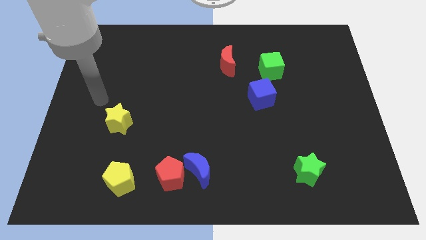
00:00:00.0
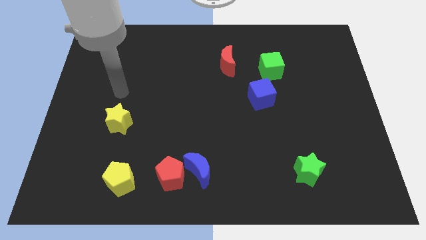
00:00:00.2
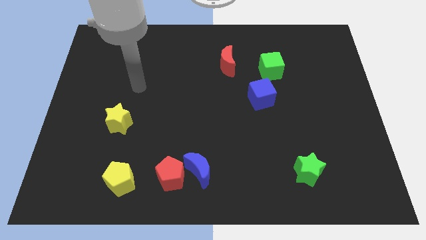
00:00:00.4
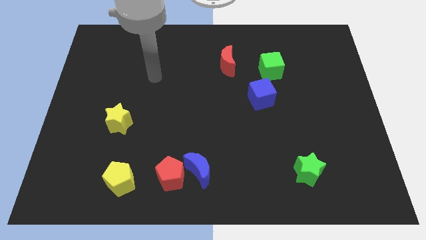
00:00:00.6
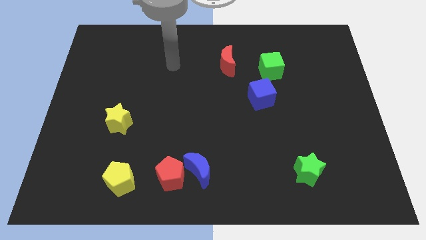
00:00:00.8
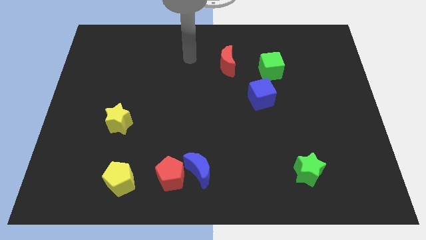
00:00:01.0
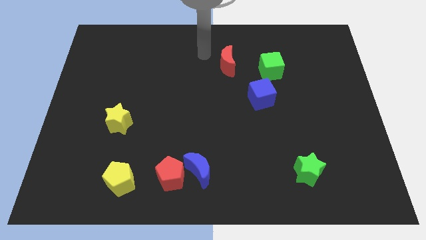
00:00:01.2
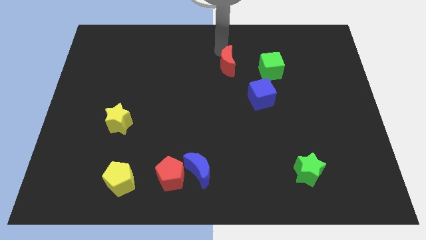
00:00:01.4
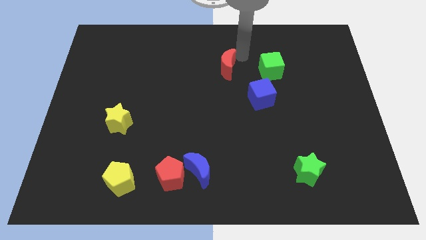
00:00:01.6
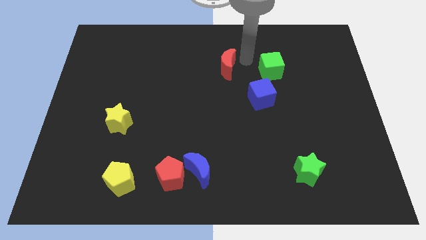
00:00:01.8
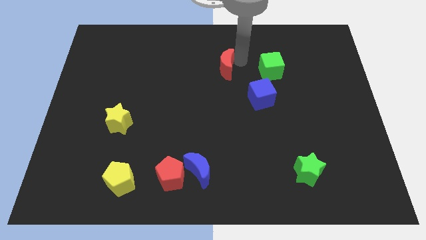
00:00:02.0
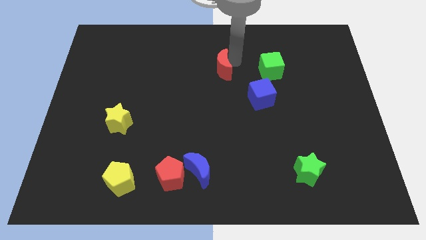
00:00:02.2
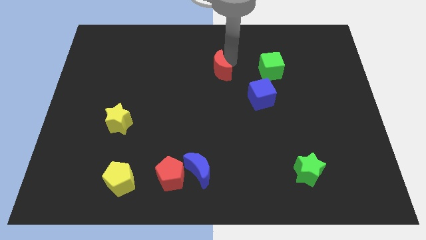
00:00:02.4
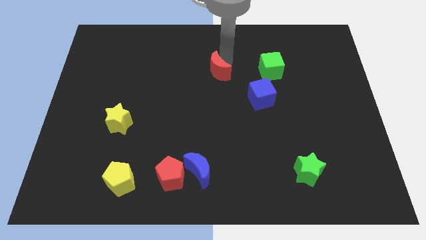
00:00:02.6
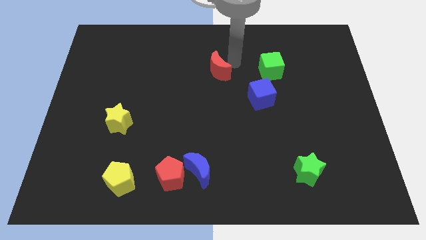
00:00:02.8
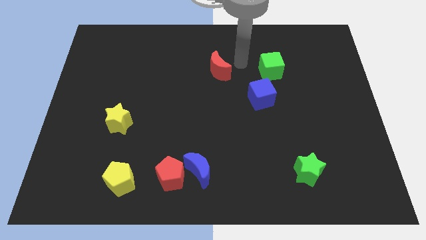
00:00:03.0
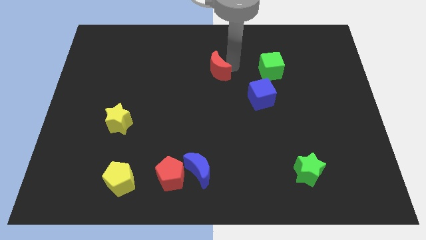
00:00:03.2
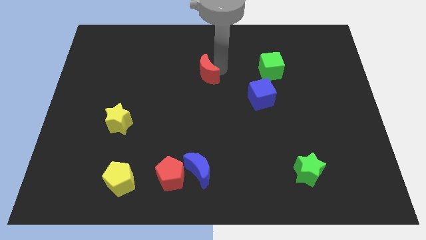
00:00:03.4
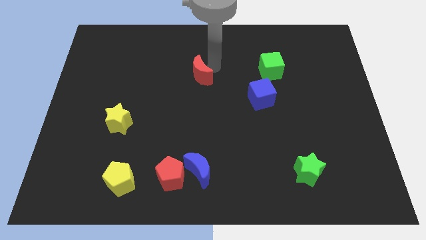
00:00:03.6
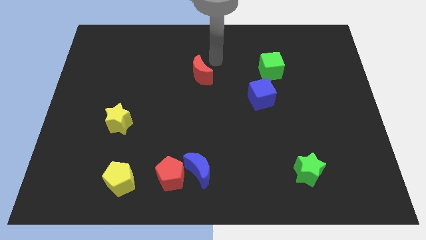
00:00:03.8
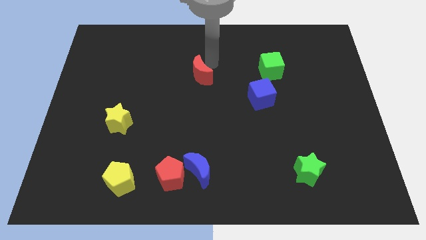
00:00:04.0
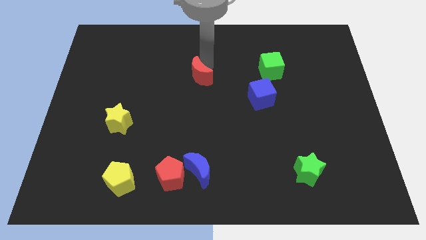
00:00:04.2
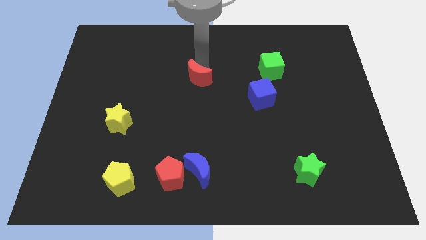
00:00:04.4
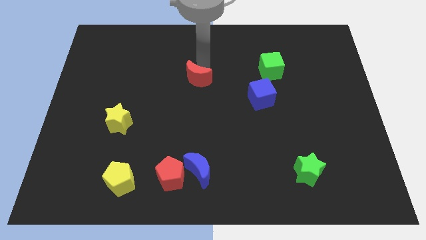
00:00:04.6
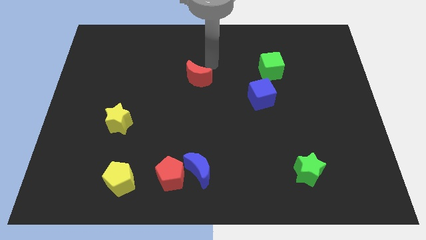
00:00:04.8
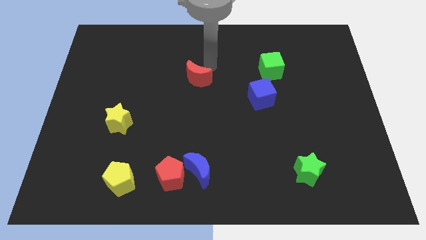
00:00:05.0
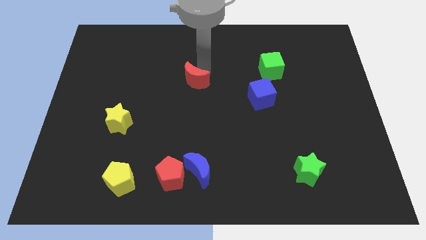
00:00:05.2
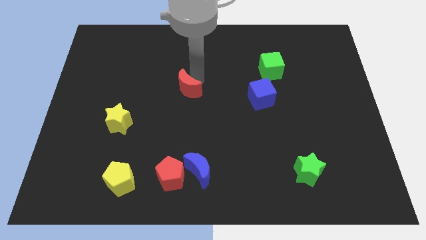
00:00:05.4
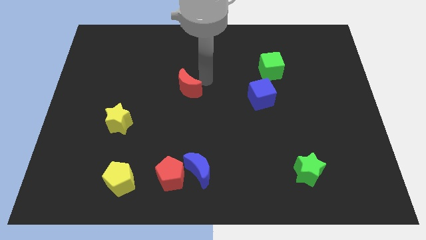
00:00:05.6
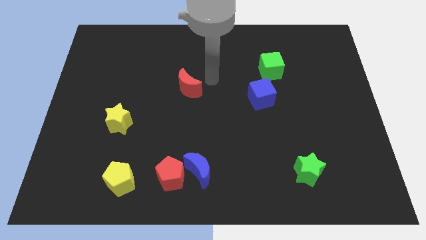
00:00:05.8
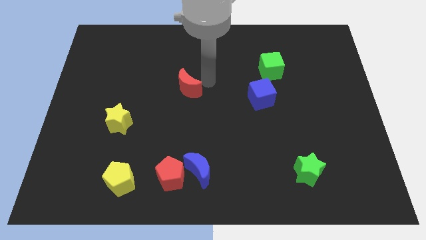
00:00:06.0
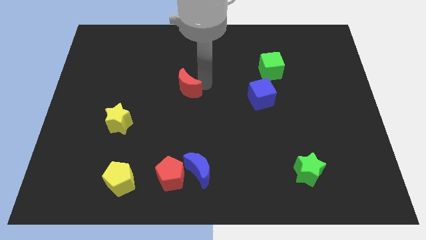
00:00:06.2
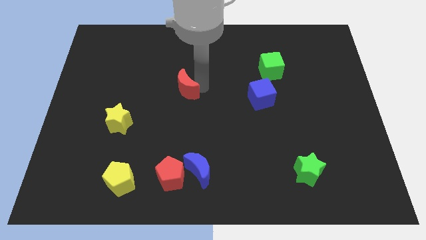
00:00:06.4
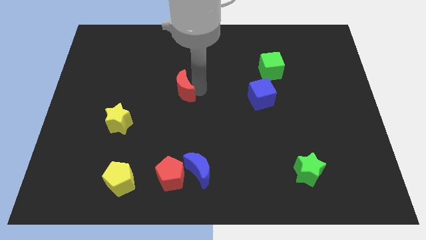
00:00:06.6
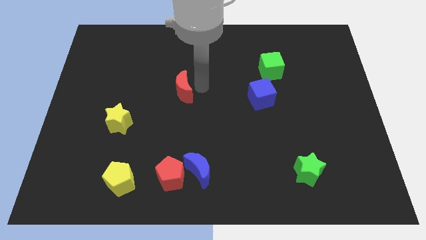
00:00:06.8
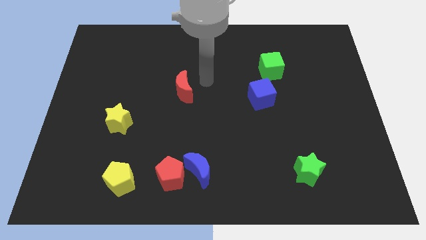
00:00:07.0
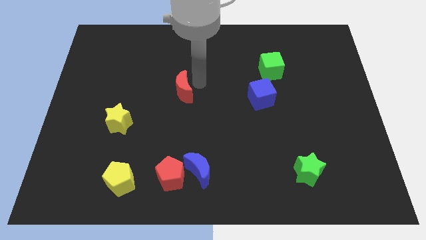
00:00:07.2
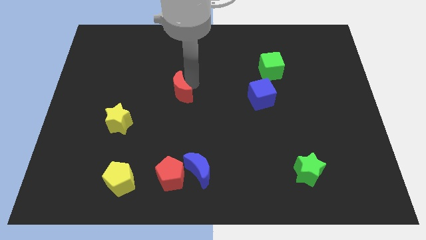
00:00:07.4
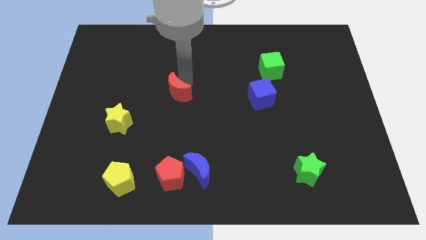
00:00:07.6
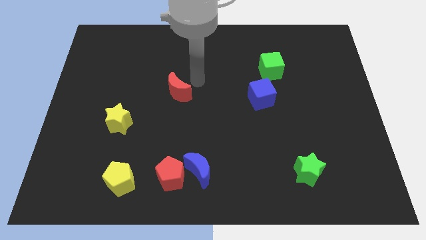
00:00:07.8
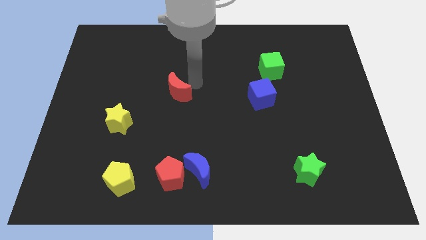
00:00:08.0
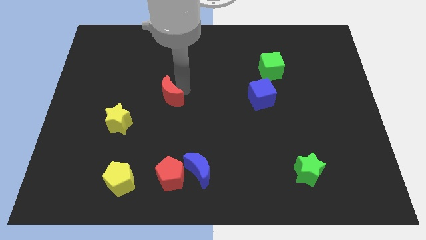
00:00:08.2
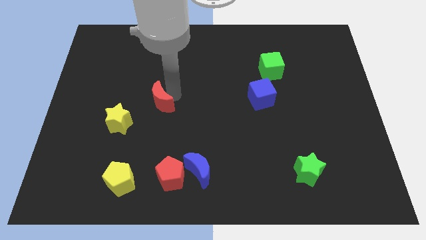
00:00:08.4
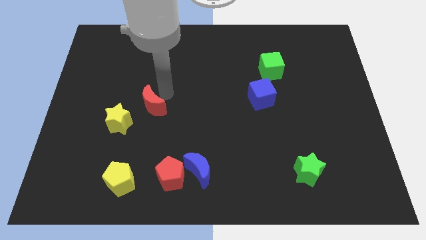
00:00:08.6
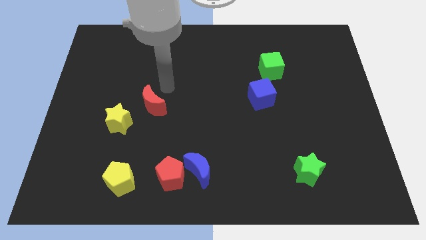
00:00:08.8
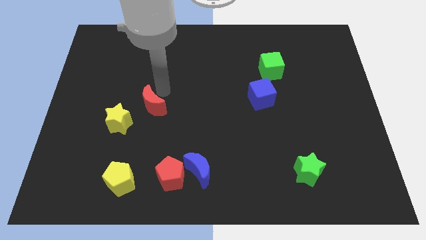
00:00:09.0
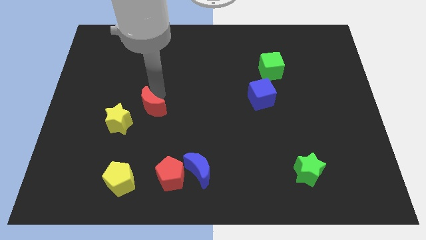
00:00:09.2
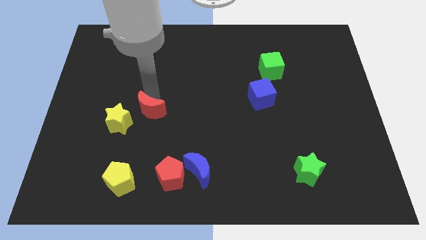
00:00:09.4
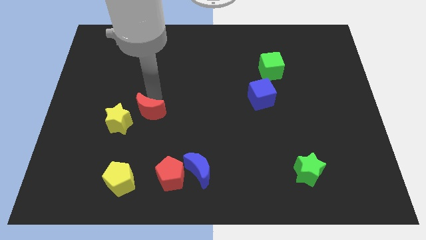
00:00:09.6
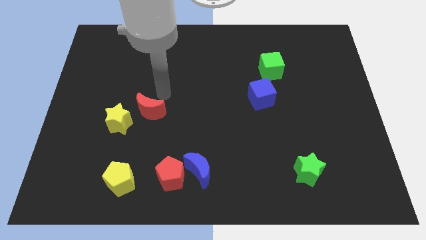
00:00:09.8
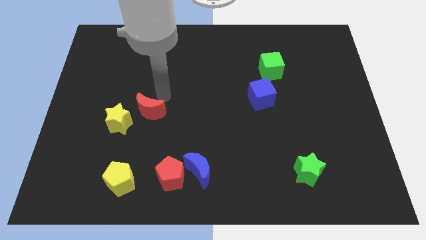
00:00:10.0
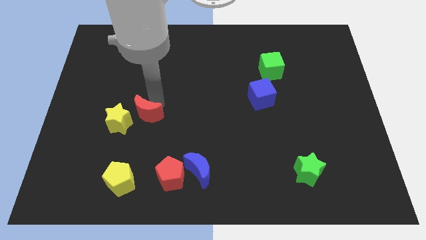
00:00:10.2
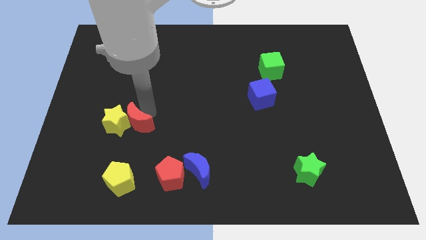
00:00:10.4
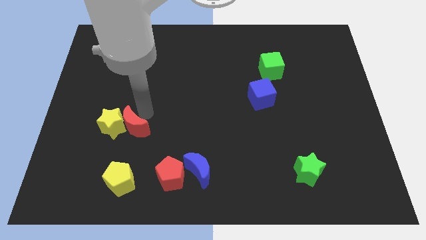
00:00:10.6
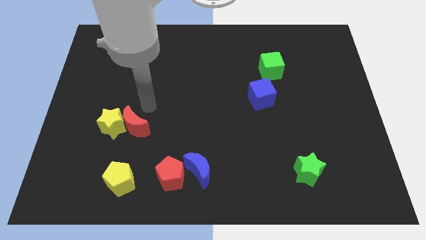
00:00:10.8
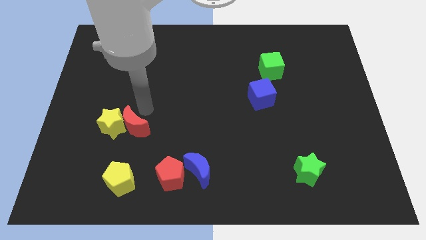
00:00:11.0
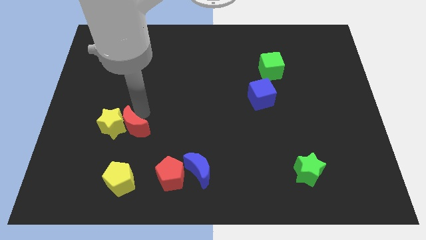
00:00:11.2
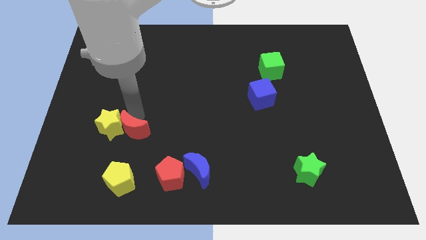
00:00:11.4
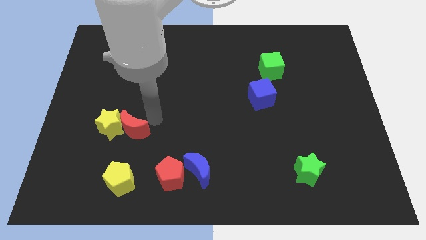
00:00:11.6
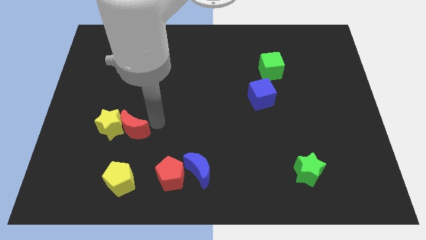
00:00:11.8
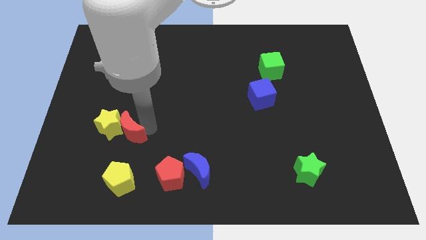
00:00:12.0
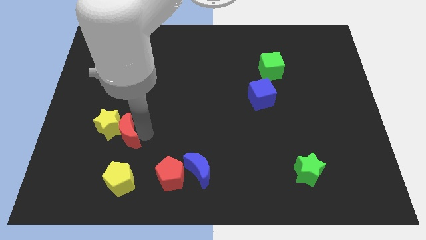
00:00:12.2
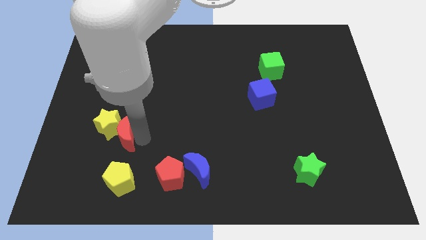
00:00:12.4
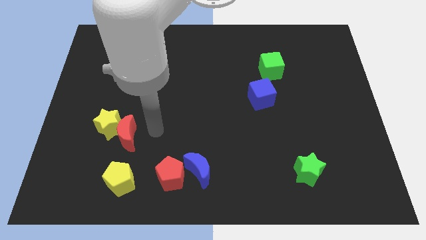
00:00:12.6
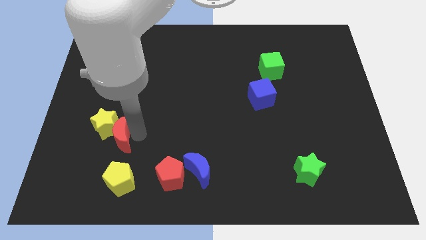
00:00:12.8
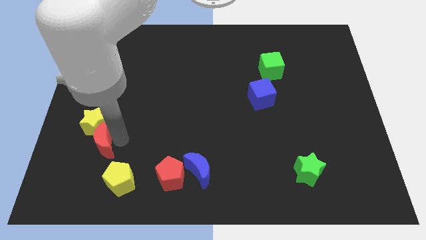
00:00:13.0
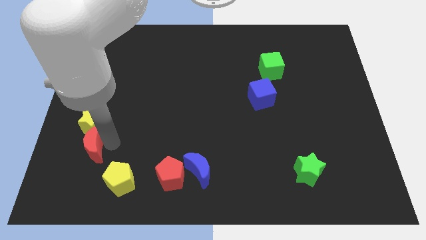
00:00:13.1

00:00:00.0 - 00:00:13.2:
push the red moon to the bottom left of the yellow star
